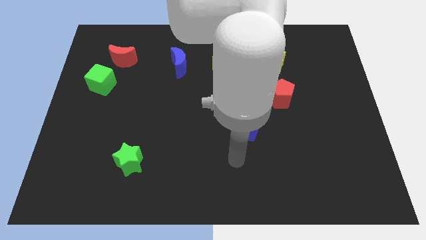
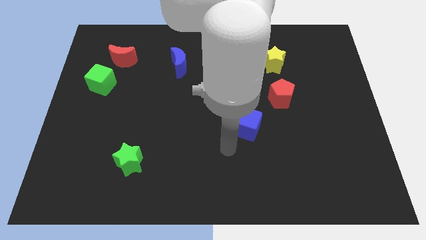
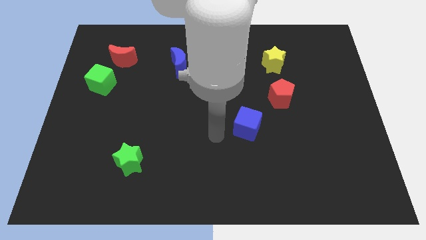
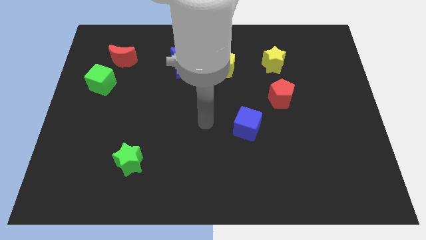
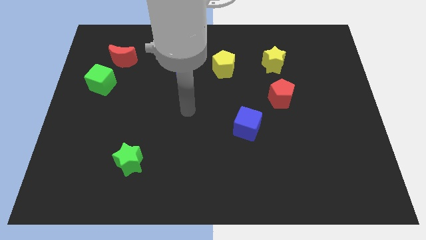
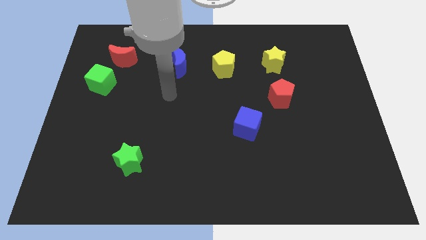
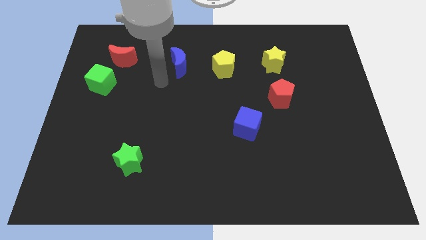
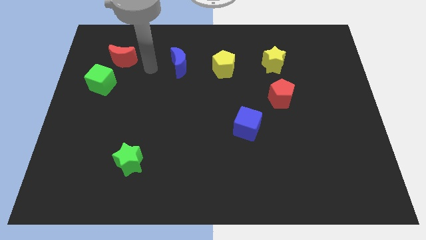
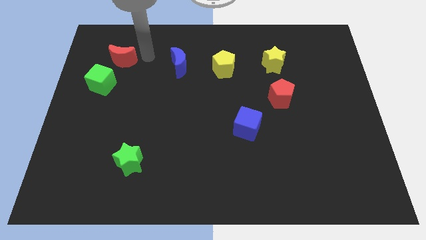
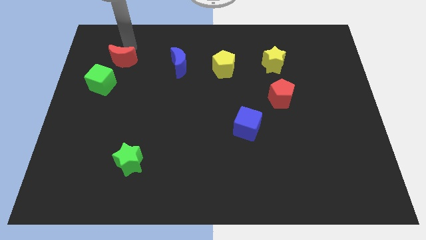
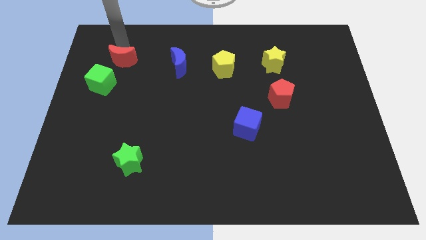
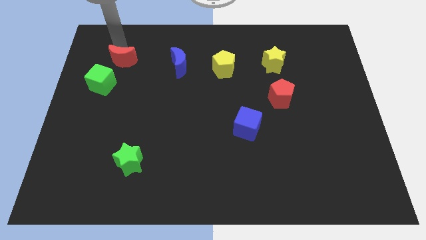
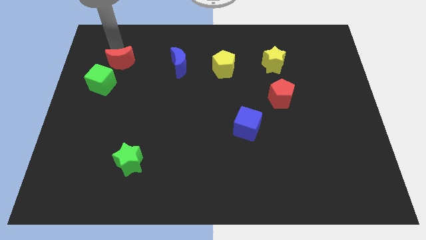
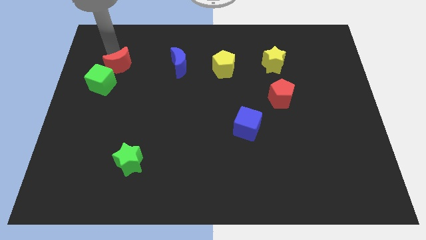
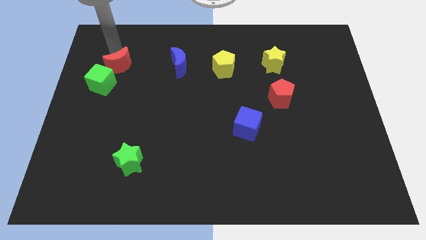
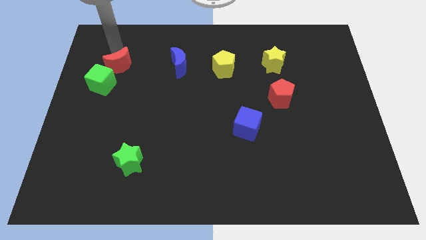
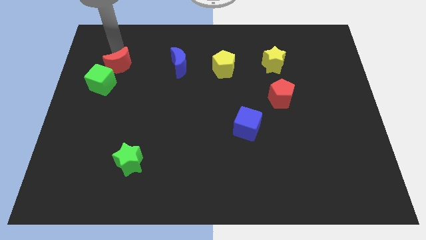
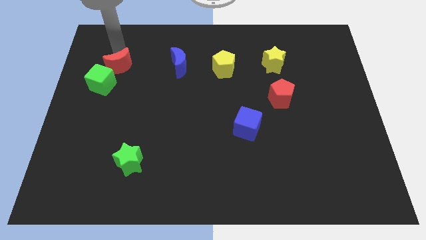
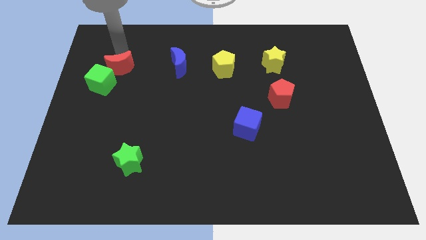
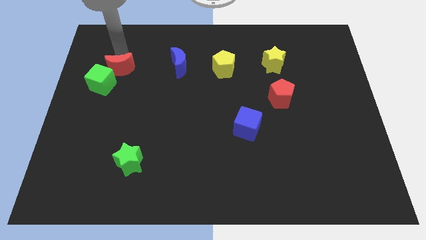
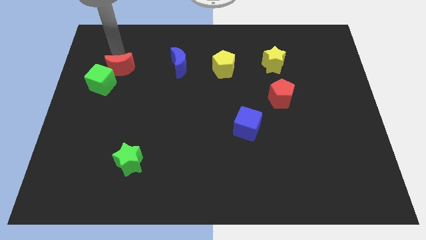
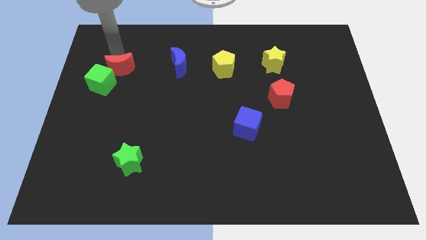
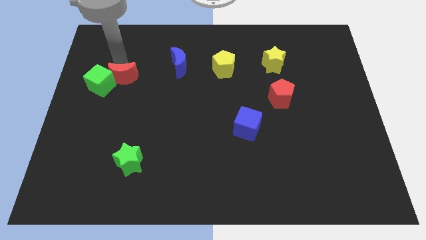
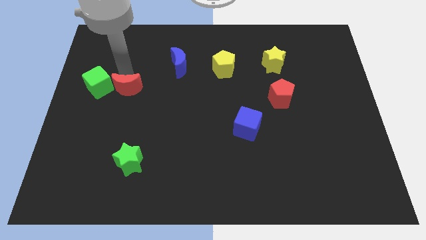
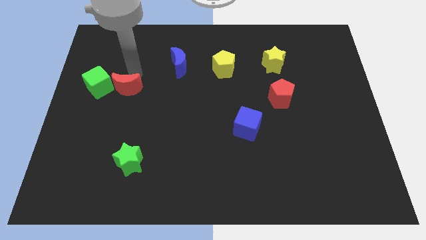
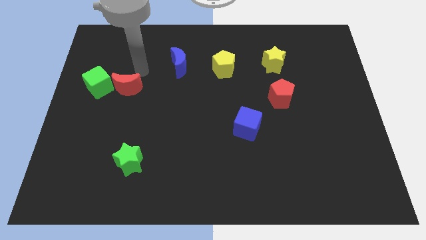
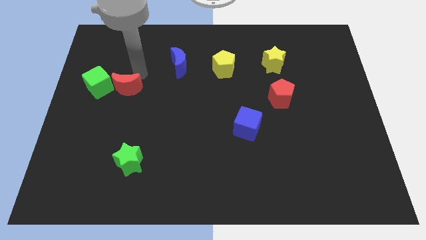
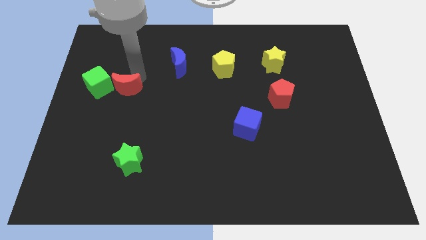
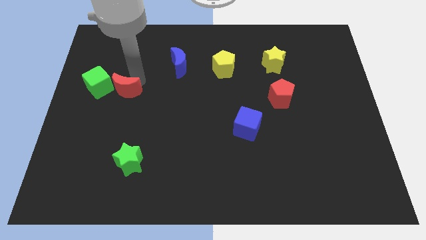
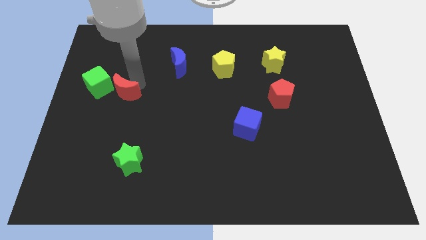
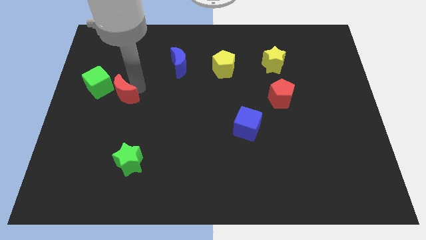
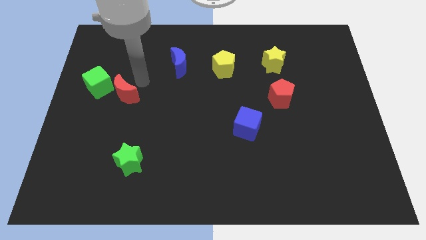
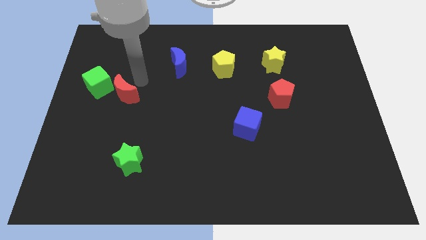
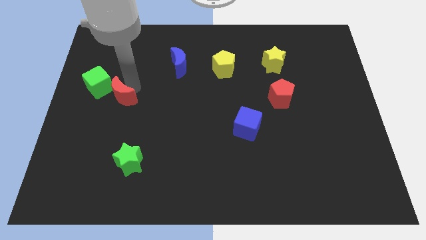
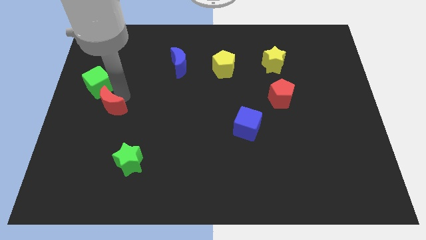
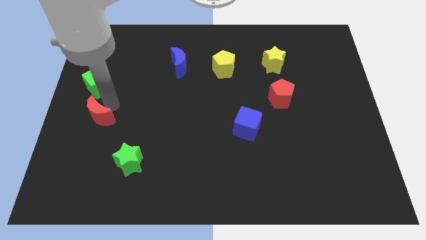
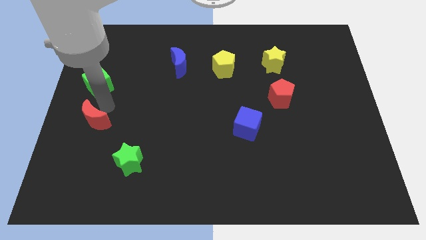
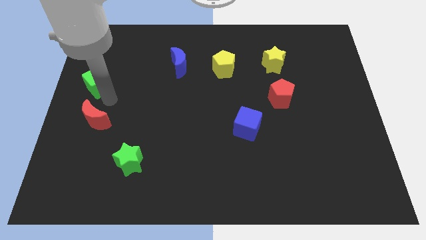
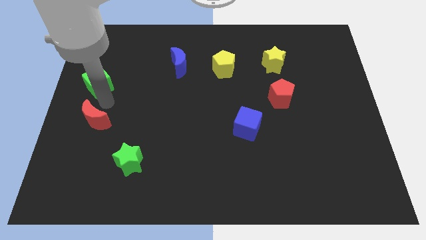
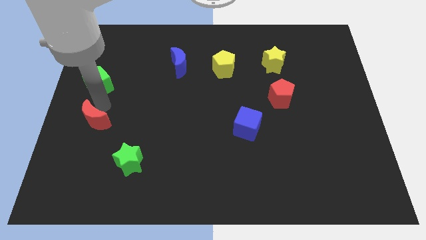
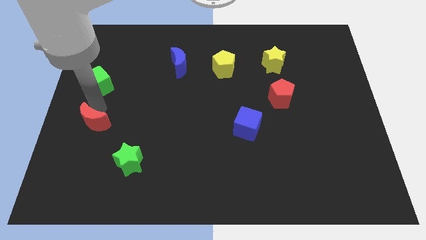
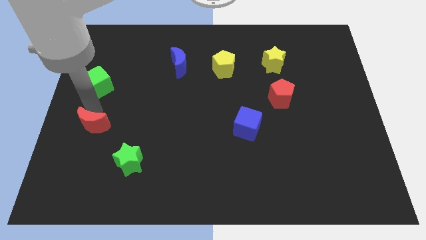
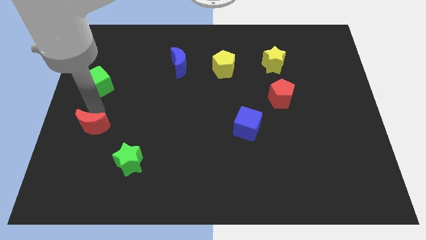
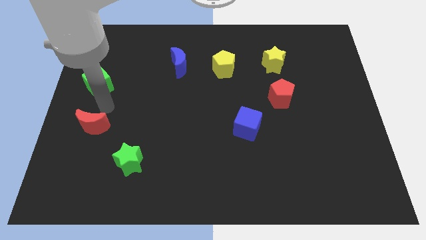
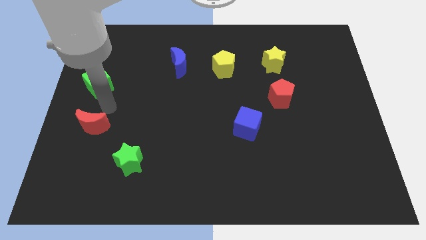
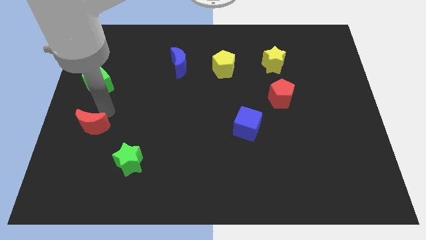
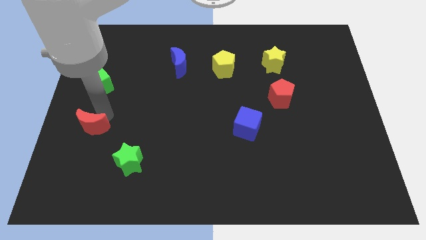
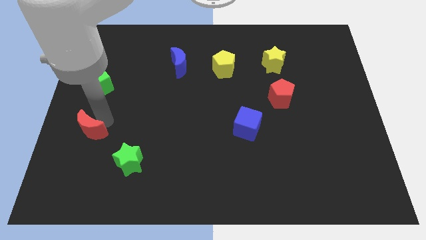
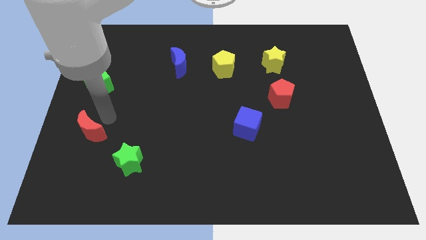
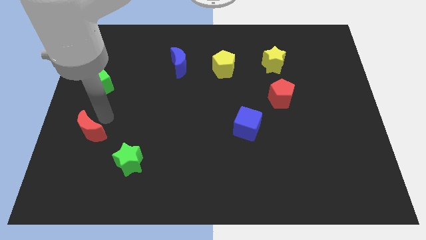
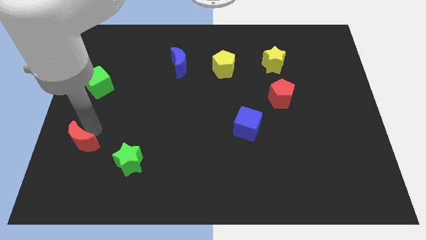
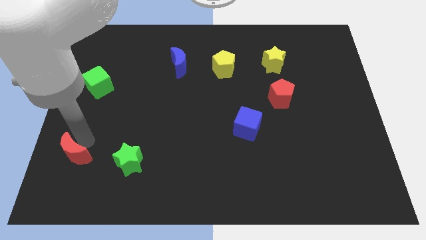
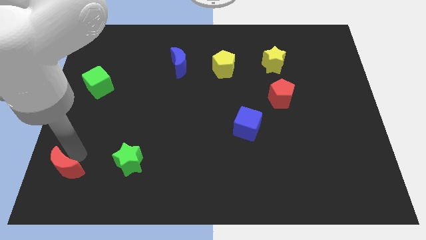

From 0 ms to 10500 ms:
move the red moon to the bottom left of the board

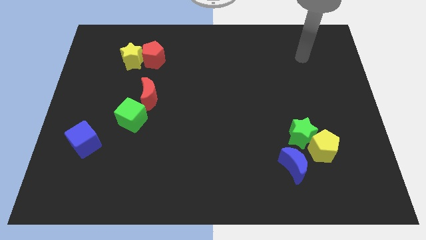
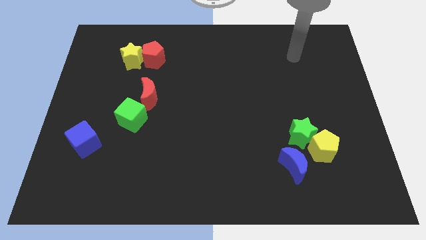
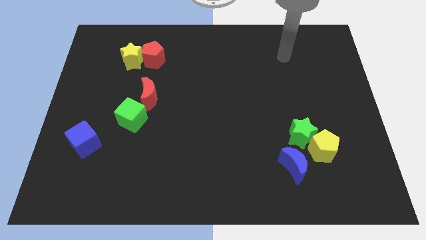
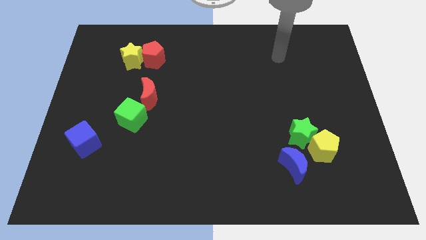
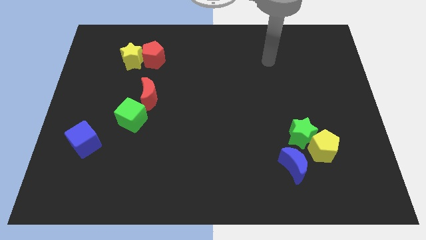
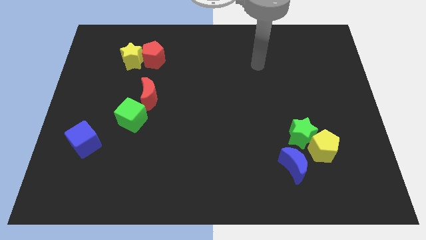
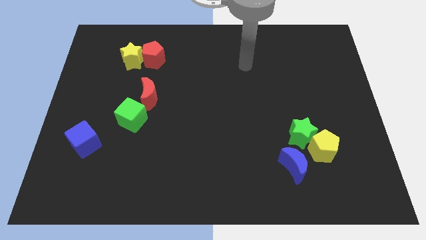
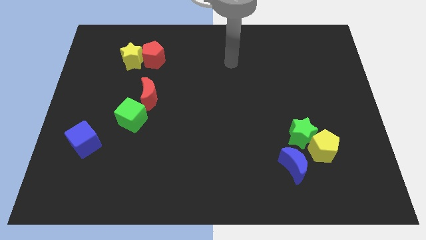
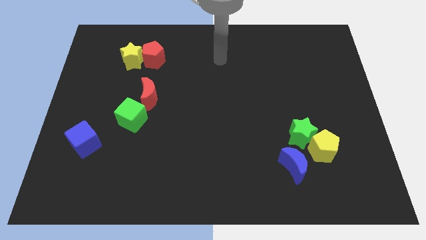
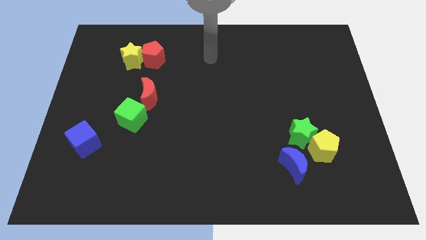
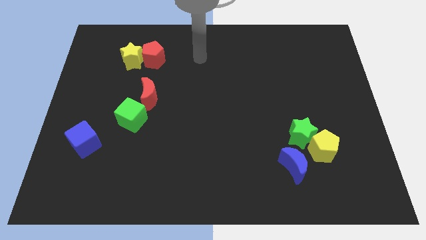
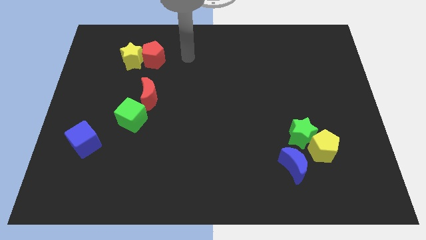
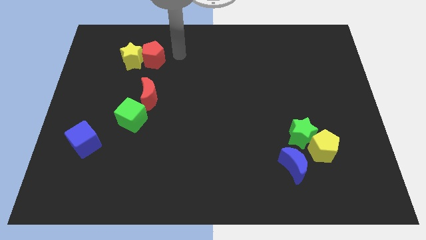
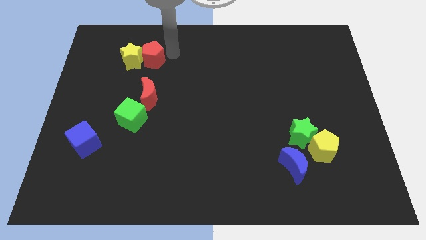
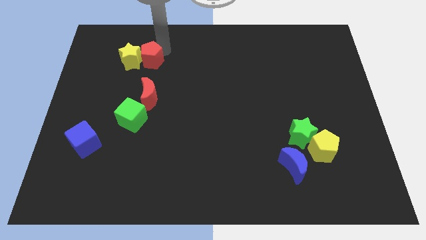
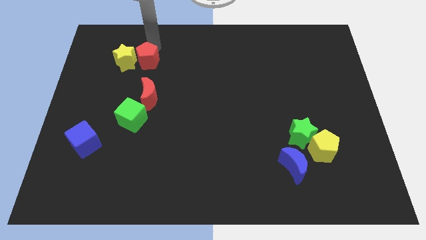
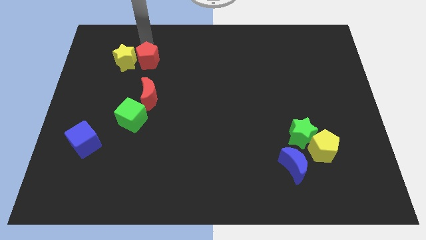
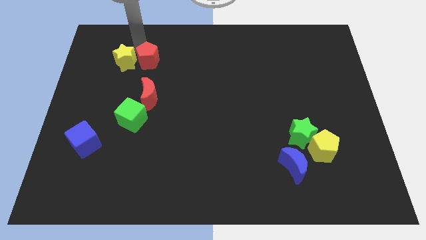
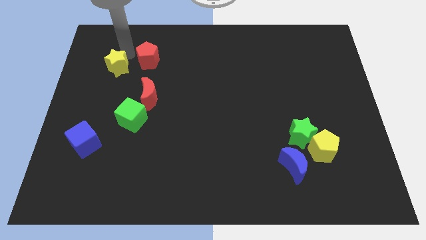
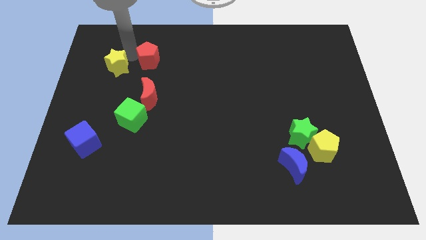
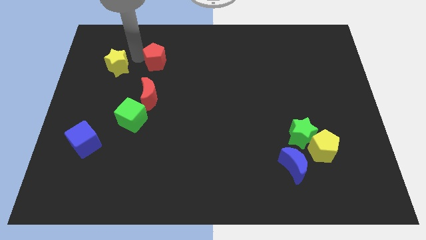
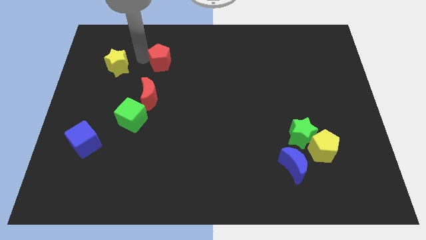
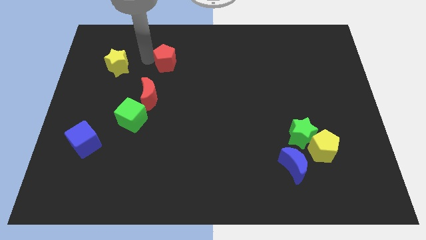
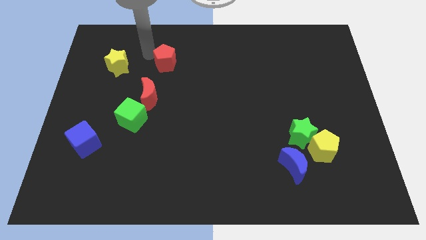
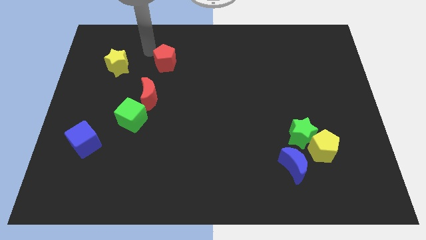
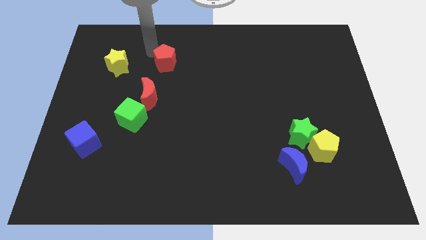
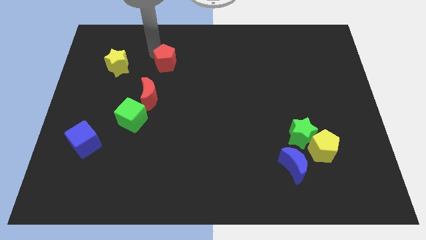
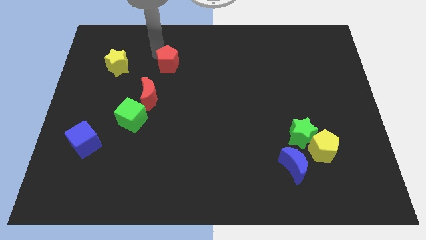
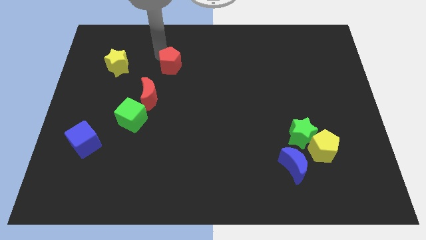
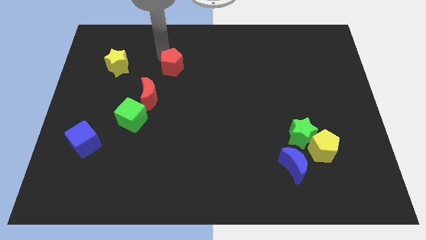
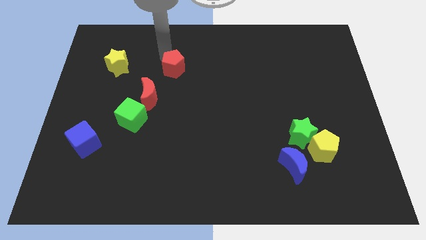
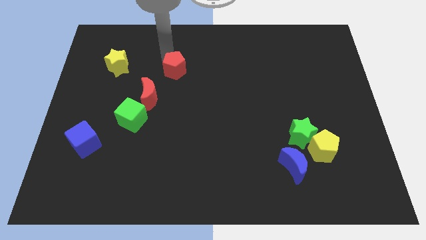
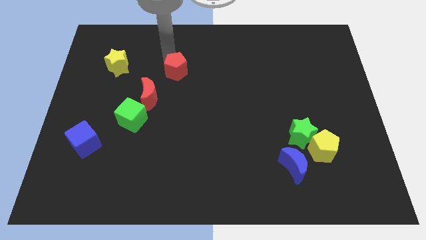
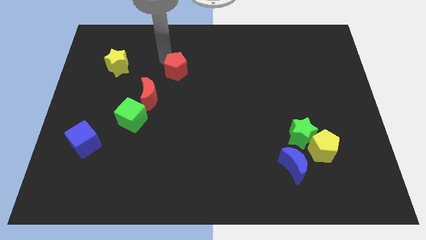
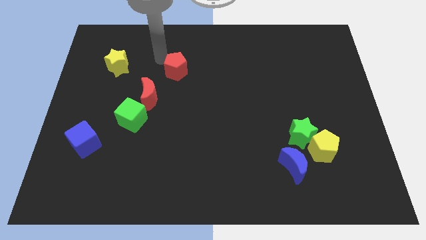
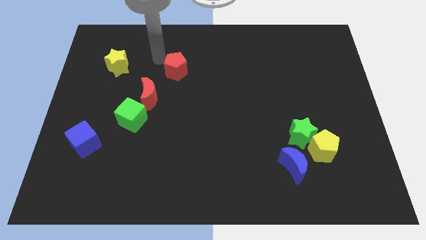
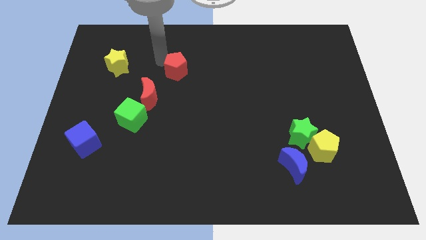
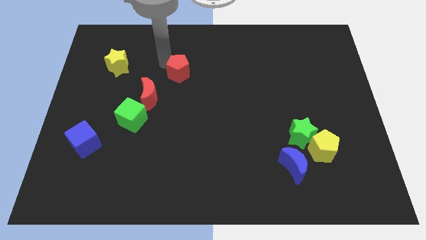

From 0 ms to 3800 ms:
move the red pentagon to the center
